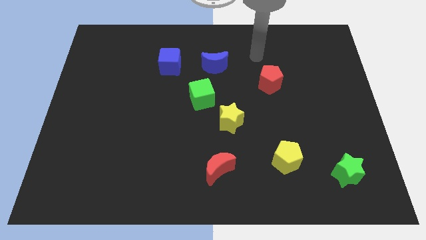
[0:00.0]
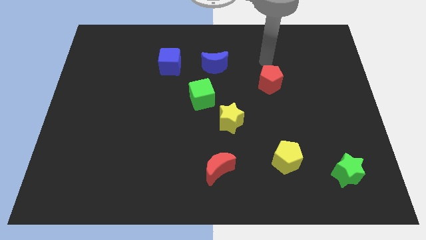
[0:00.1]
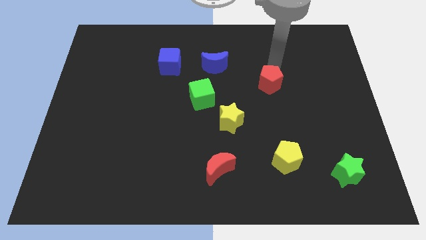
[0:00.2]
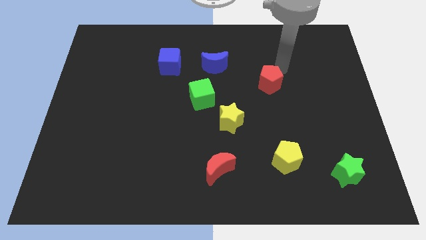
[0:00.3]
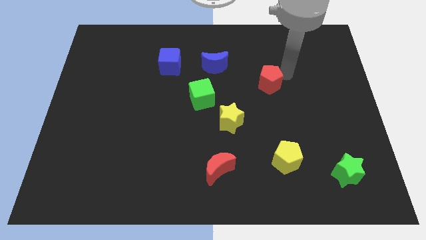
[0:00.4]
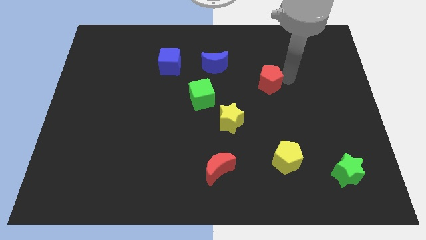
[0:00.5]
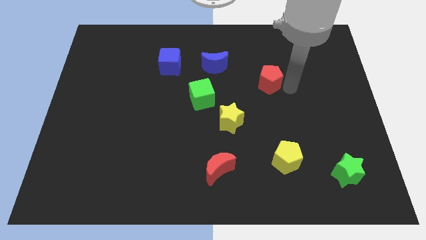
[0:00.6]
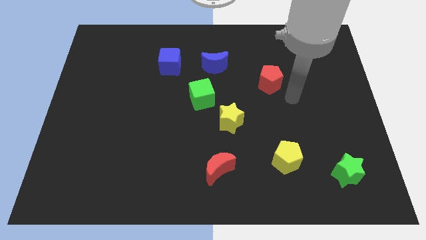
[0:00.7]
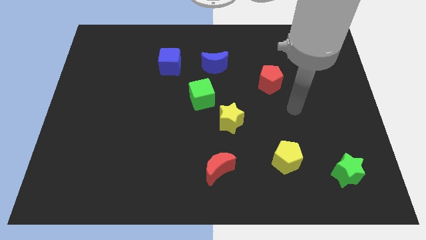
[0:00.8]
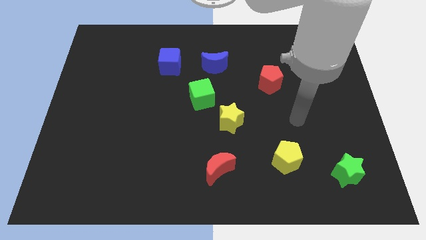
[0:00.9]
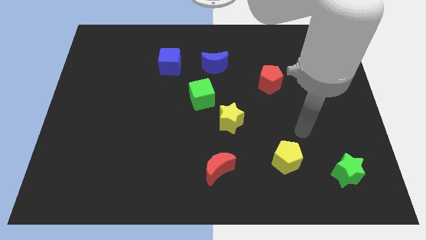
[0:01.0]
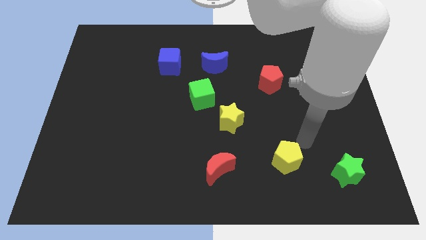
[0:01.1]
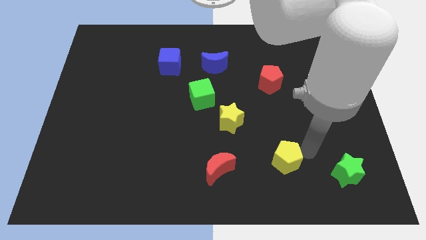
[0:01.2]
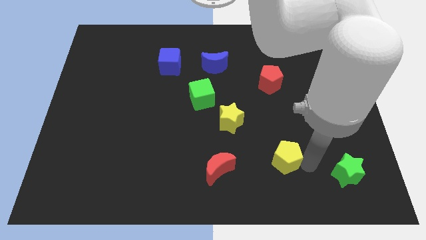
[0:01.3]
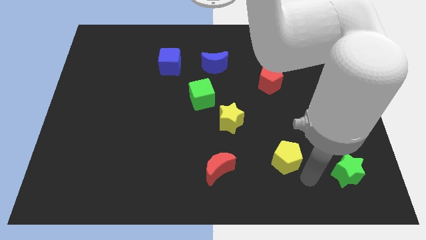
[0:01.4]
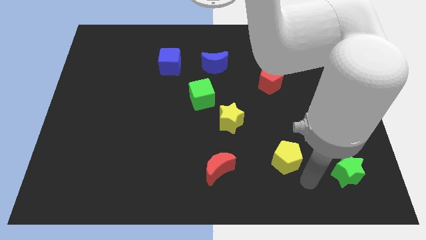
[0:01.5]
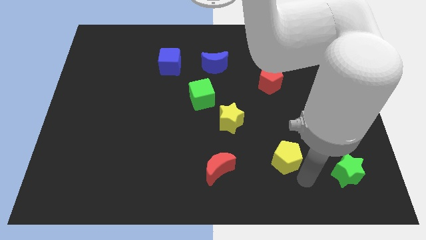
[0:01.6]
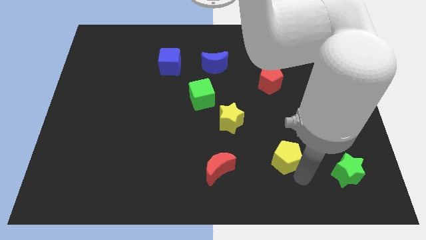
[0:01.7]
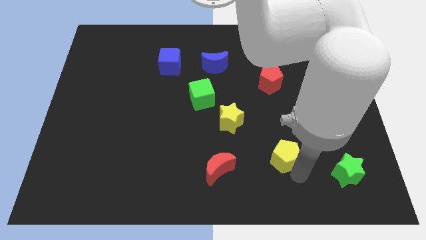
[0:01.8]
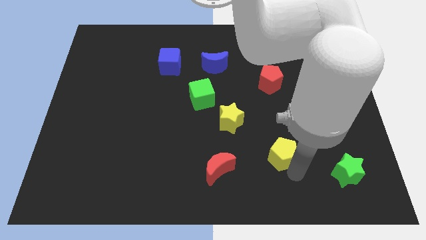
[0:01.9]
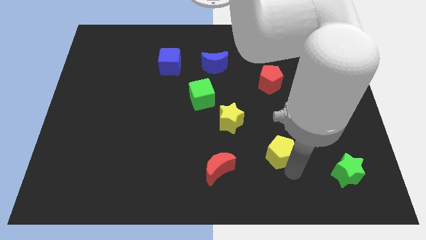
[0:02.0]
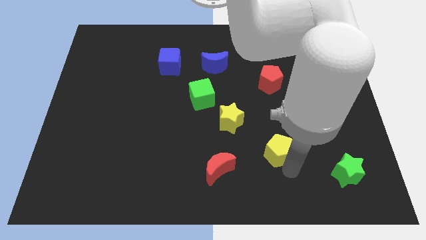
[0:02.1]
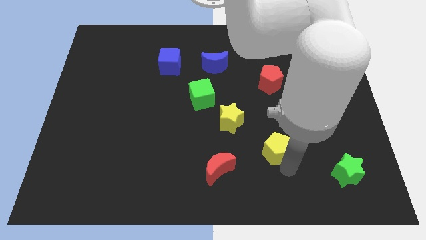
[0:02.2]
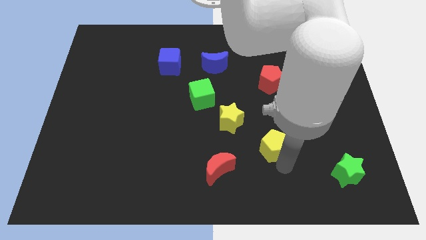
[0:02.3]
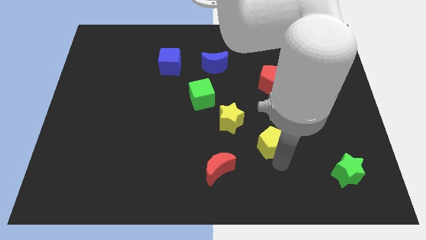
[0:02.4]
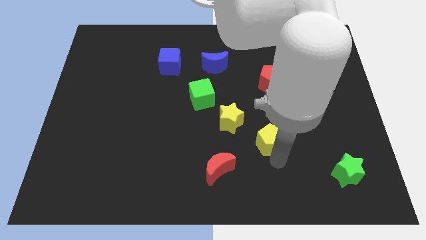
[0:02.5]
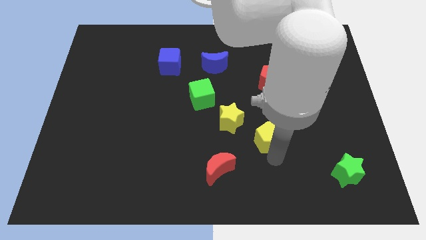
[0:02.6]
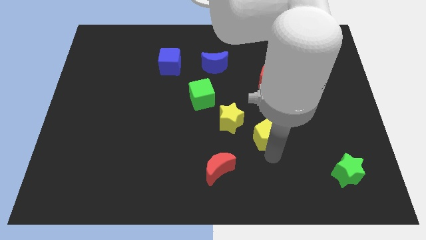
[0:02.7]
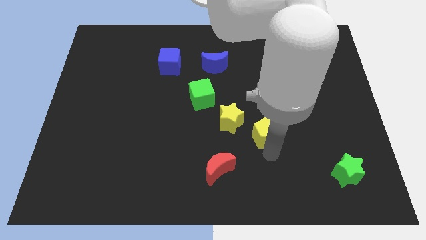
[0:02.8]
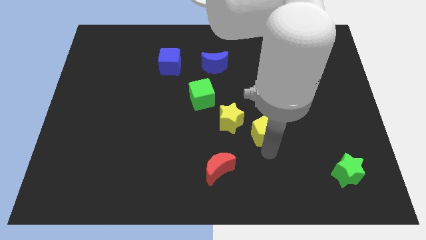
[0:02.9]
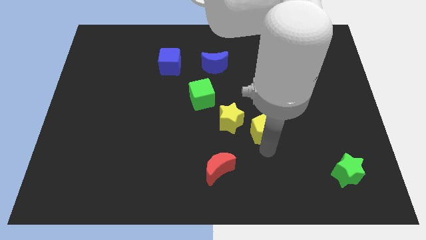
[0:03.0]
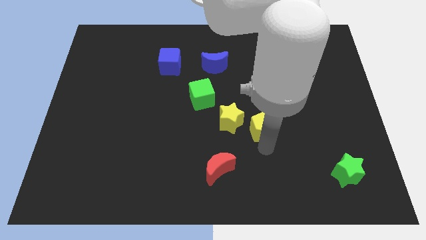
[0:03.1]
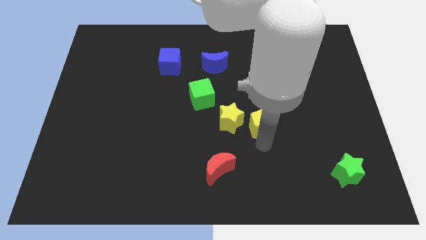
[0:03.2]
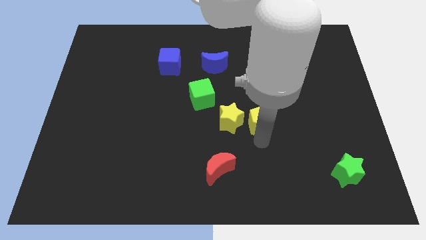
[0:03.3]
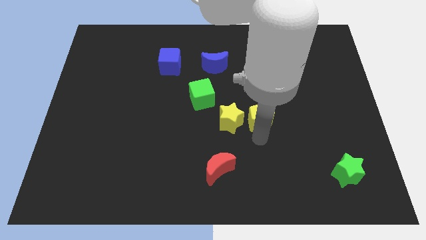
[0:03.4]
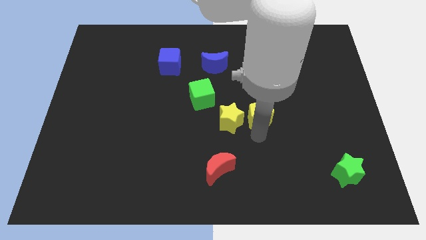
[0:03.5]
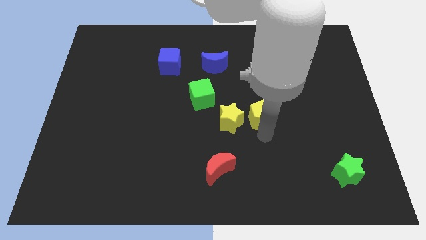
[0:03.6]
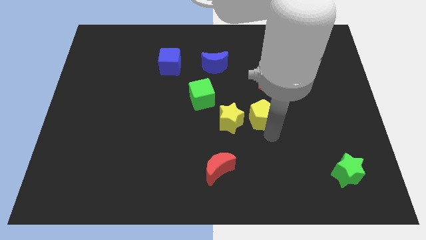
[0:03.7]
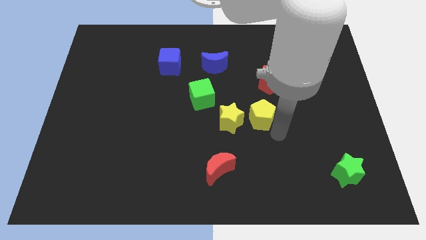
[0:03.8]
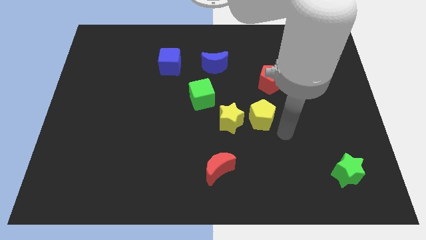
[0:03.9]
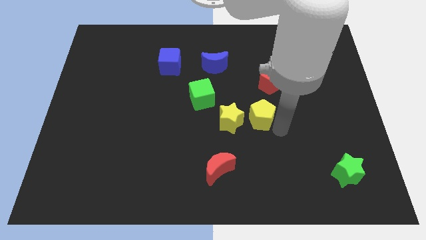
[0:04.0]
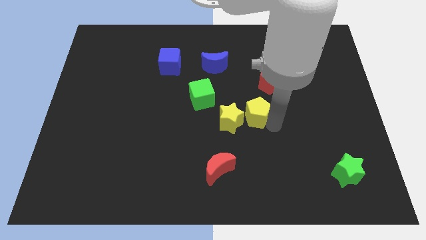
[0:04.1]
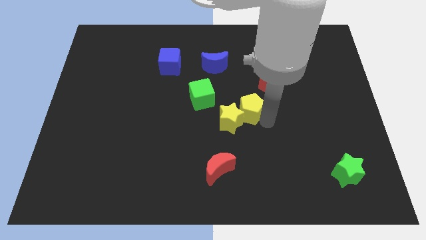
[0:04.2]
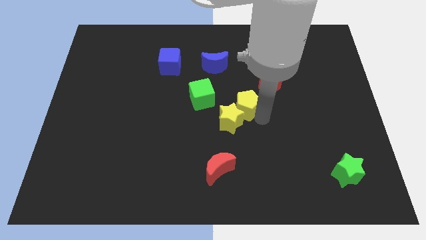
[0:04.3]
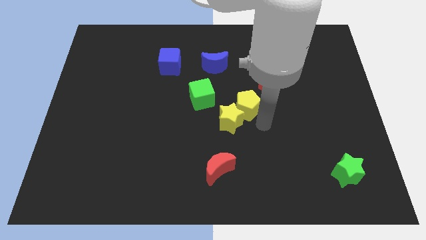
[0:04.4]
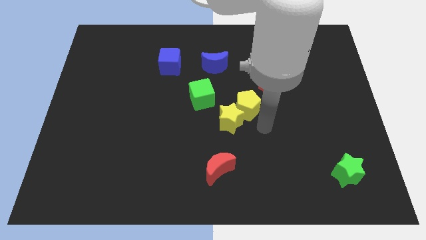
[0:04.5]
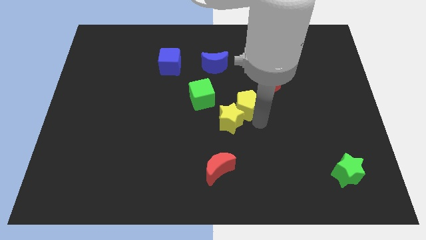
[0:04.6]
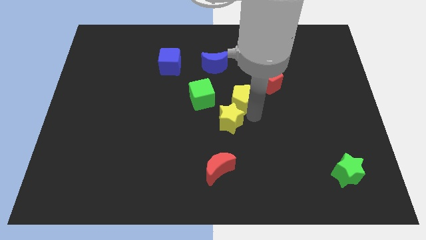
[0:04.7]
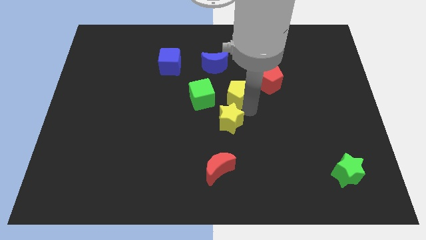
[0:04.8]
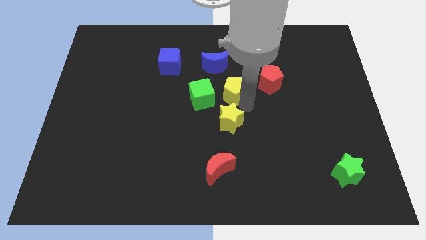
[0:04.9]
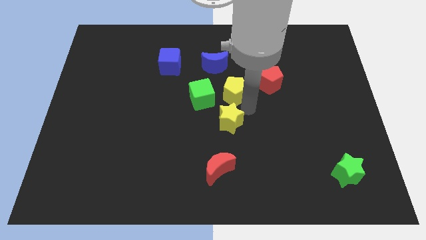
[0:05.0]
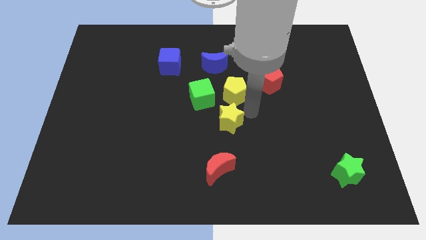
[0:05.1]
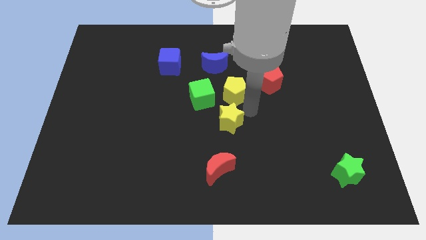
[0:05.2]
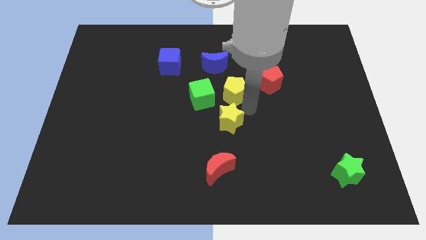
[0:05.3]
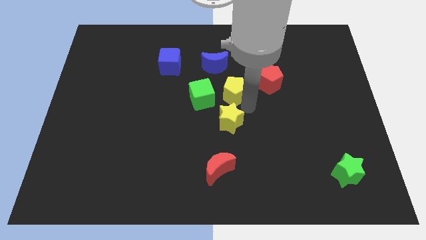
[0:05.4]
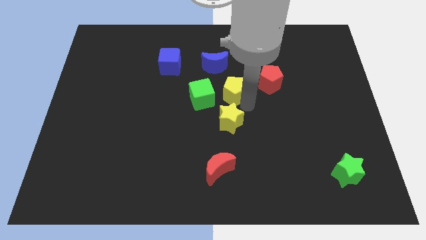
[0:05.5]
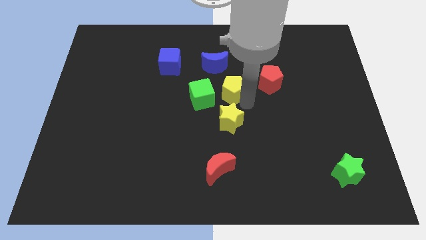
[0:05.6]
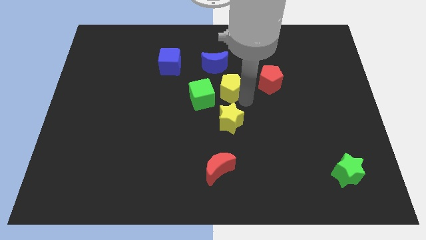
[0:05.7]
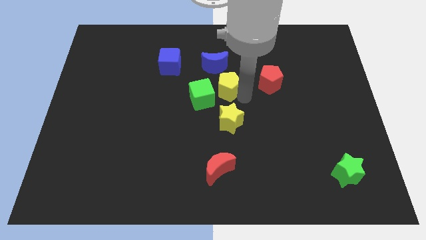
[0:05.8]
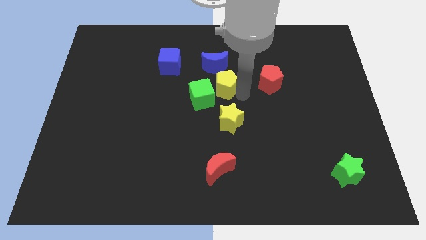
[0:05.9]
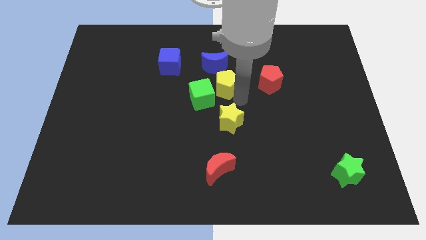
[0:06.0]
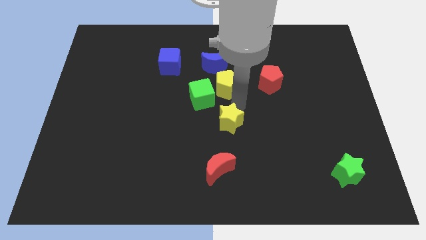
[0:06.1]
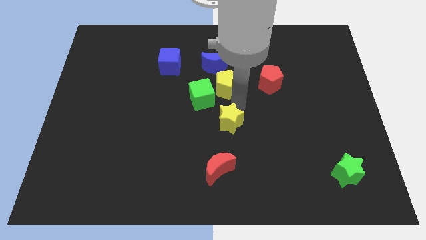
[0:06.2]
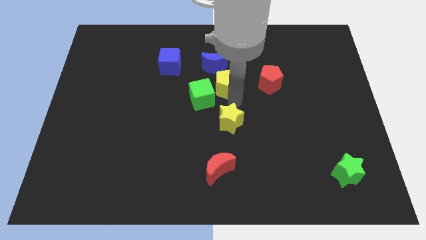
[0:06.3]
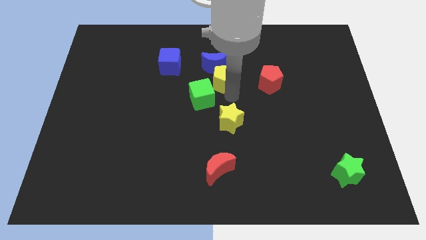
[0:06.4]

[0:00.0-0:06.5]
put the yellow pentagon towards the blue moon

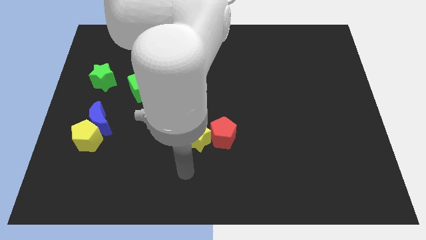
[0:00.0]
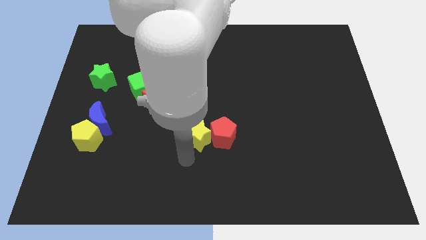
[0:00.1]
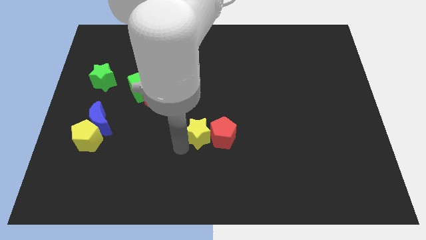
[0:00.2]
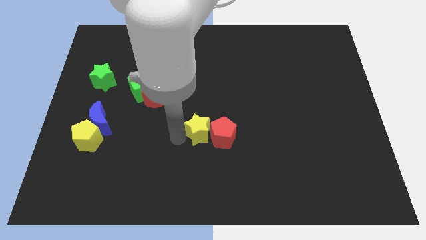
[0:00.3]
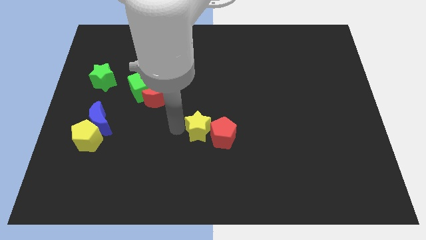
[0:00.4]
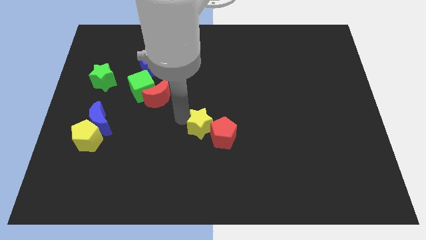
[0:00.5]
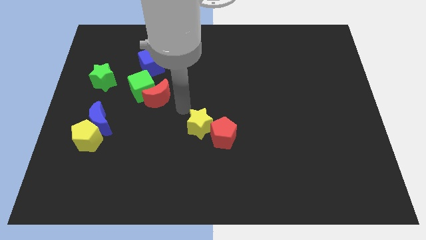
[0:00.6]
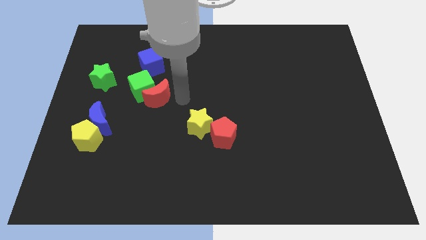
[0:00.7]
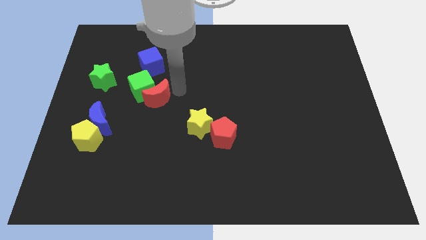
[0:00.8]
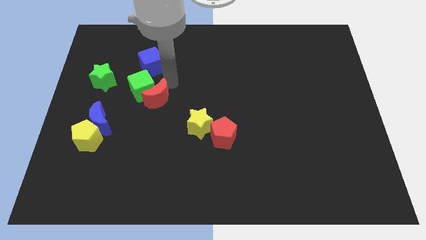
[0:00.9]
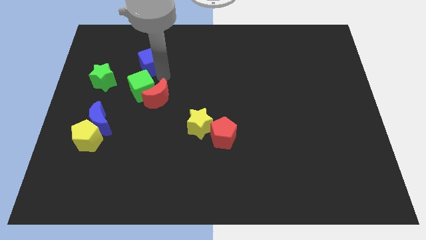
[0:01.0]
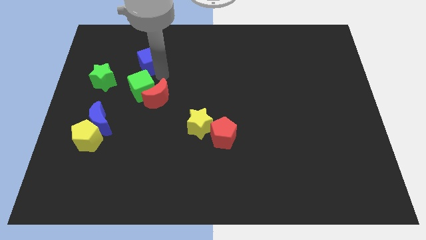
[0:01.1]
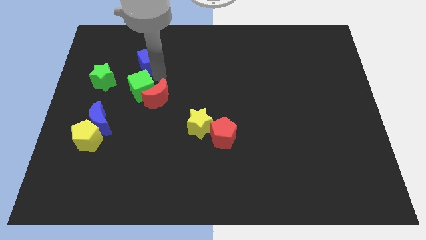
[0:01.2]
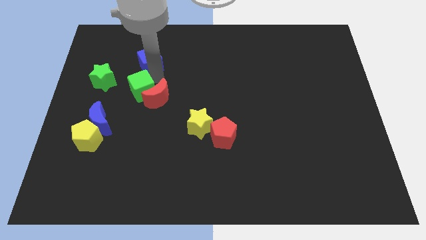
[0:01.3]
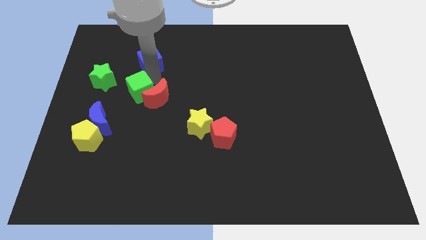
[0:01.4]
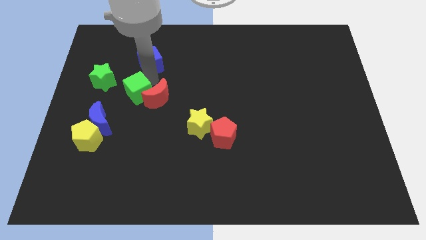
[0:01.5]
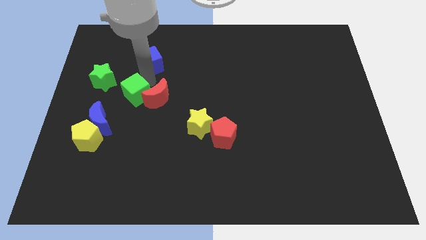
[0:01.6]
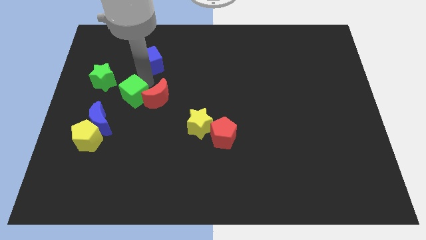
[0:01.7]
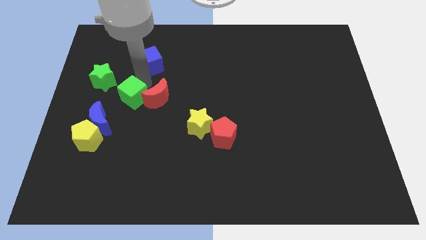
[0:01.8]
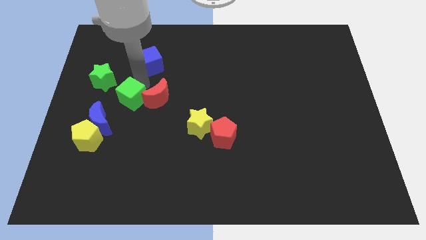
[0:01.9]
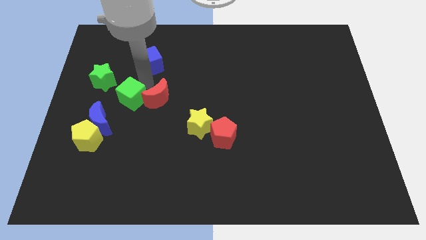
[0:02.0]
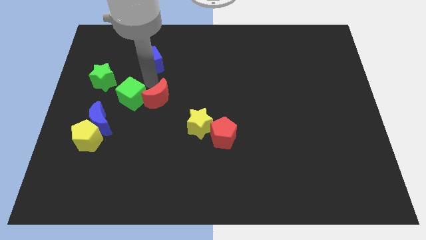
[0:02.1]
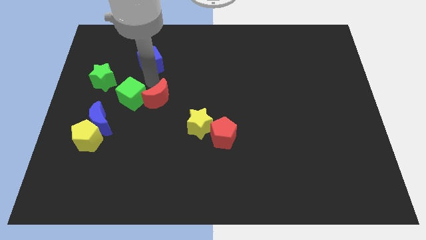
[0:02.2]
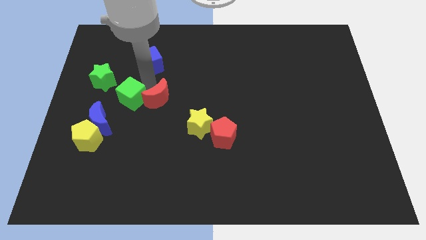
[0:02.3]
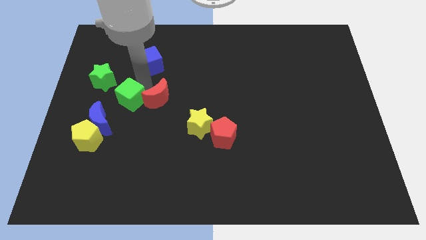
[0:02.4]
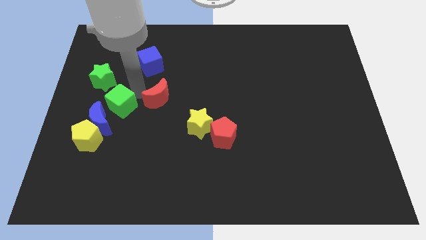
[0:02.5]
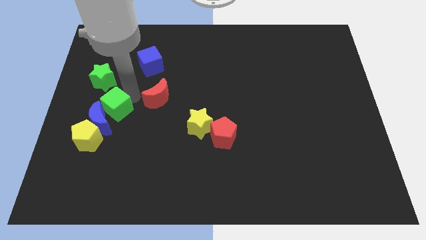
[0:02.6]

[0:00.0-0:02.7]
put the green cube towards the blue moon
